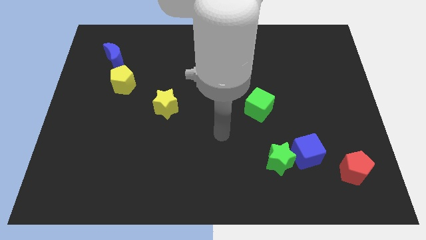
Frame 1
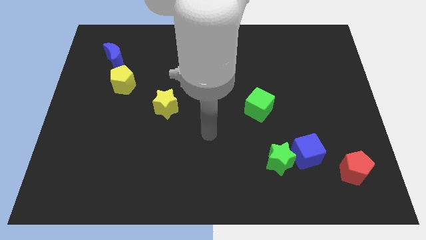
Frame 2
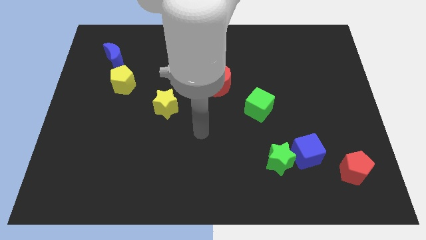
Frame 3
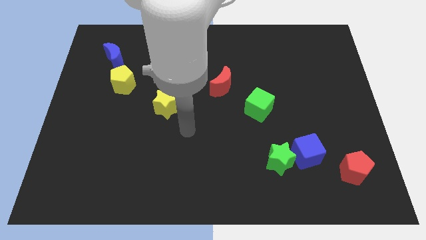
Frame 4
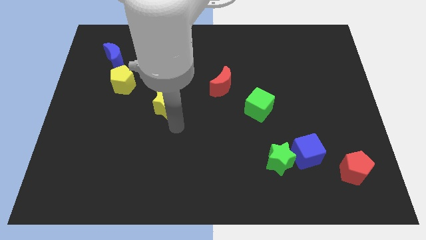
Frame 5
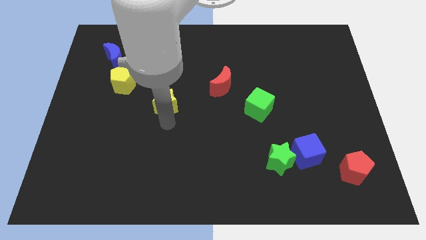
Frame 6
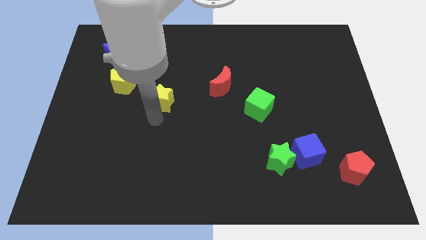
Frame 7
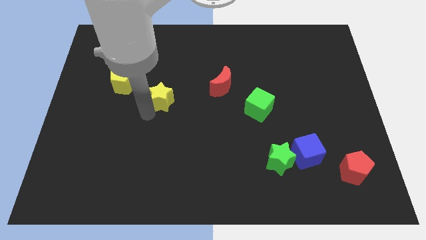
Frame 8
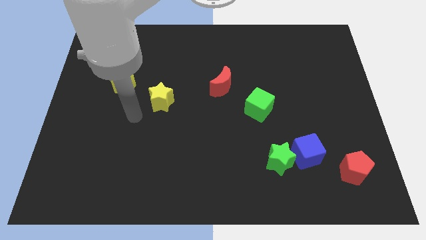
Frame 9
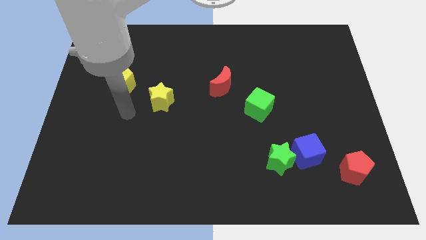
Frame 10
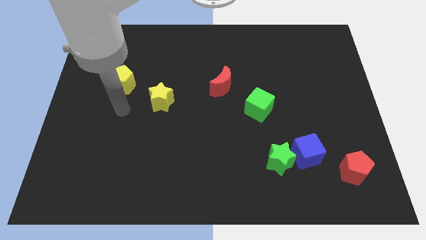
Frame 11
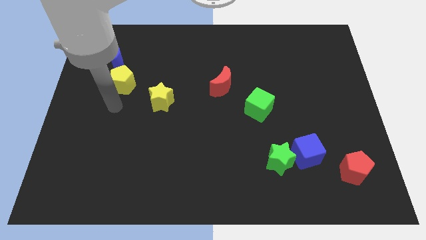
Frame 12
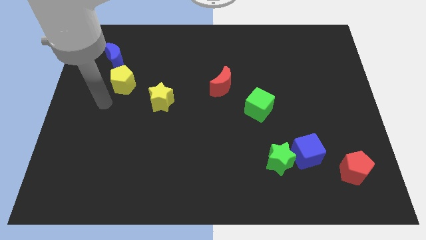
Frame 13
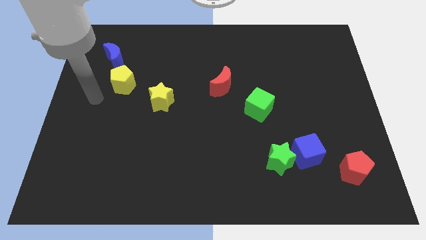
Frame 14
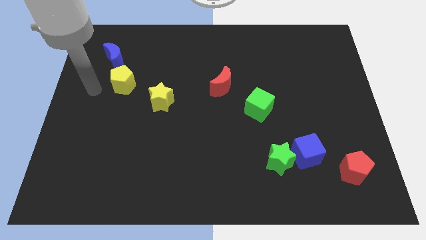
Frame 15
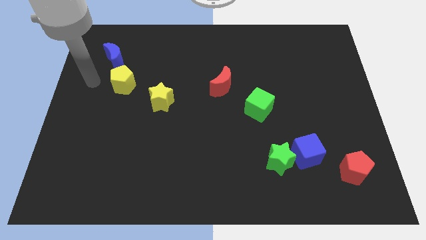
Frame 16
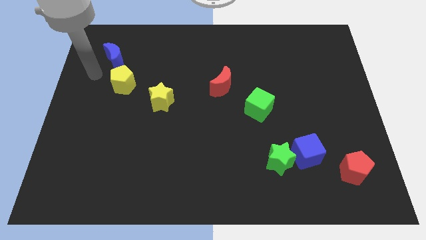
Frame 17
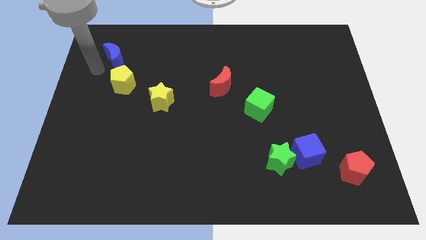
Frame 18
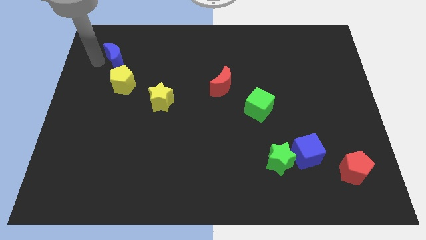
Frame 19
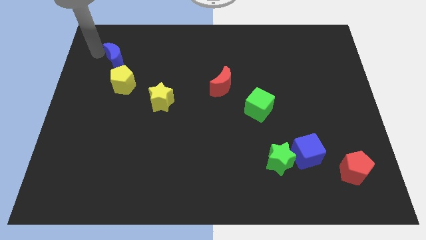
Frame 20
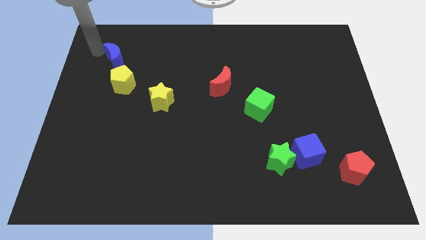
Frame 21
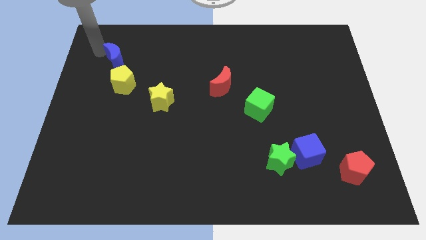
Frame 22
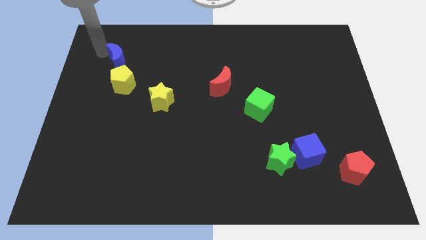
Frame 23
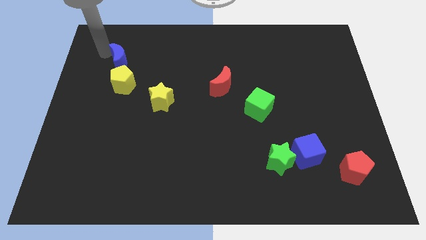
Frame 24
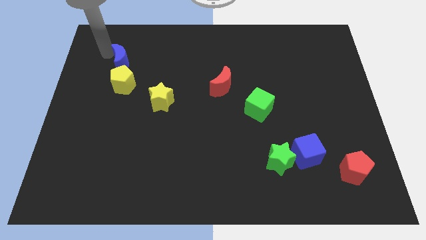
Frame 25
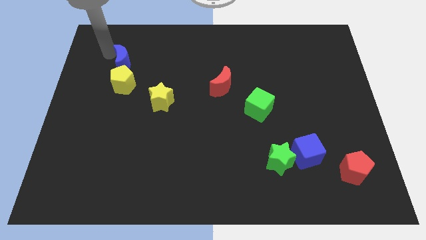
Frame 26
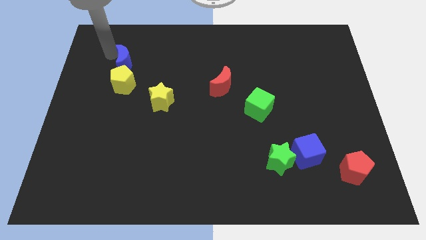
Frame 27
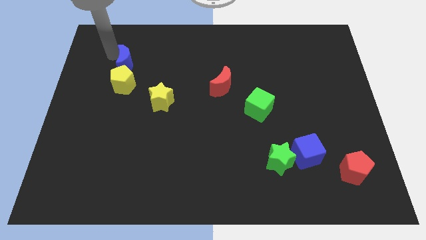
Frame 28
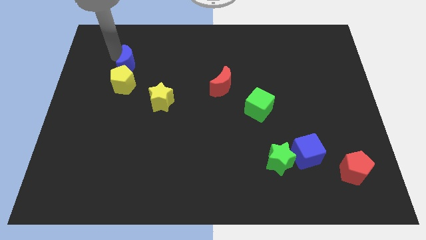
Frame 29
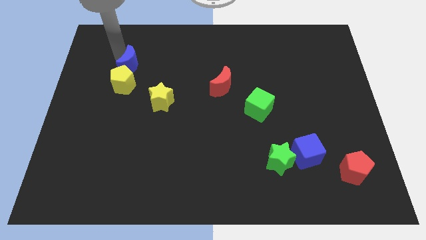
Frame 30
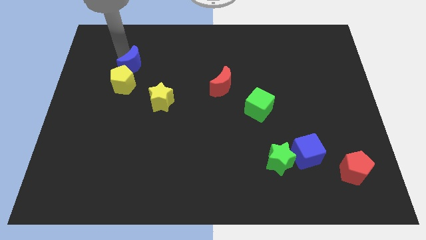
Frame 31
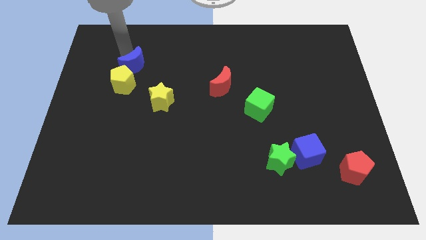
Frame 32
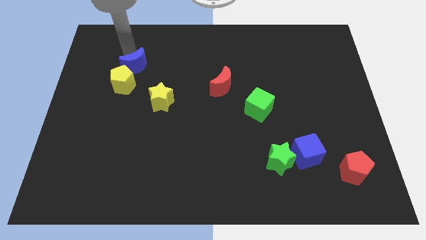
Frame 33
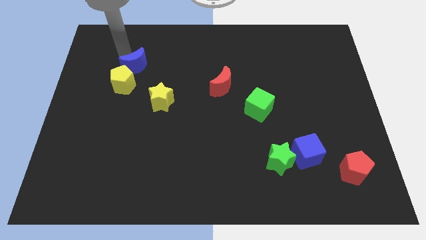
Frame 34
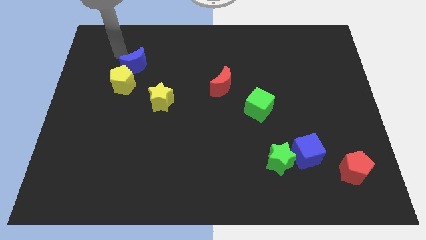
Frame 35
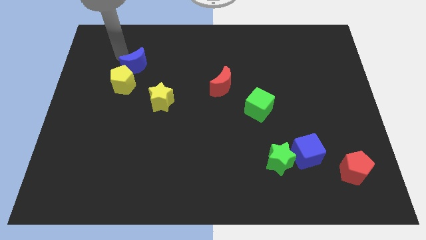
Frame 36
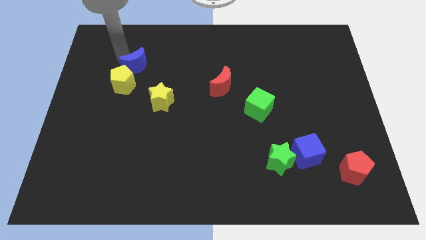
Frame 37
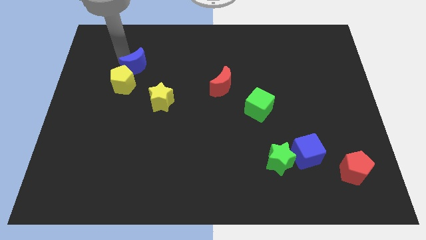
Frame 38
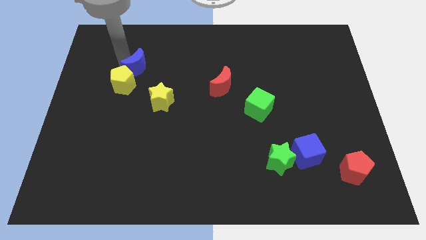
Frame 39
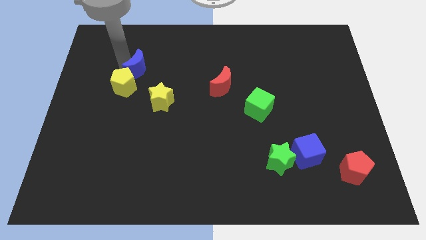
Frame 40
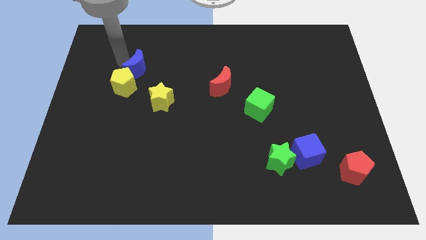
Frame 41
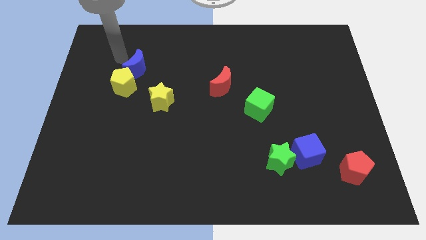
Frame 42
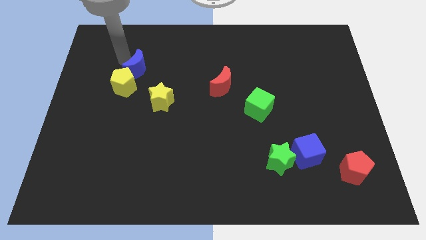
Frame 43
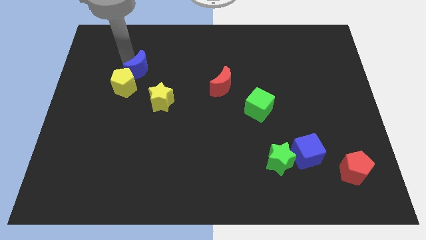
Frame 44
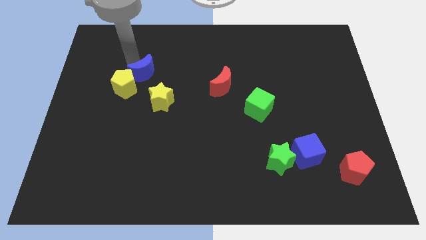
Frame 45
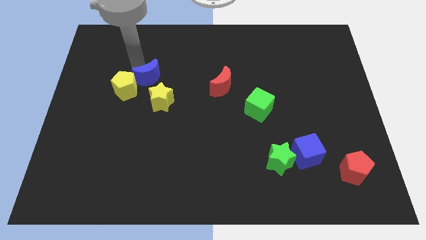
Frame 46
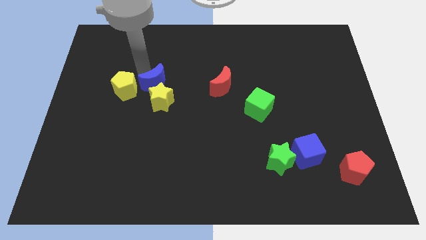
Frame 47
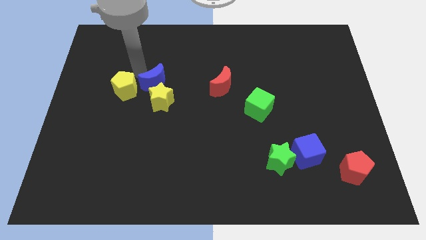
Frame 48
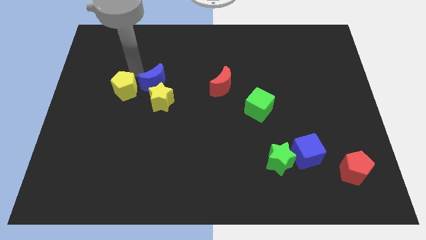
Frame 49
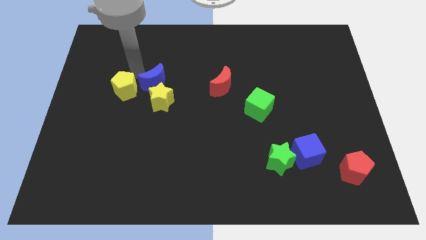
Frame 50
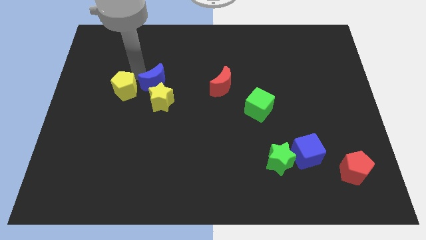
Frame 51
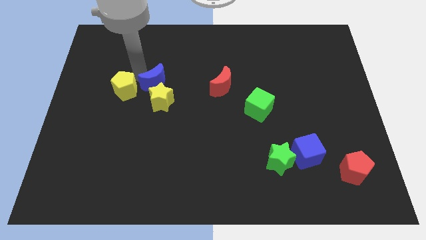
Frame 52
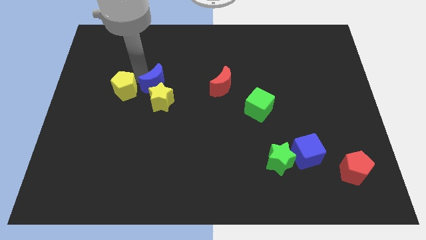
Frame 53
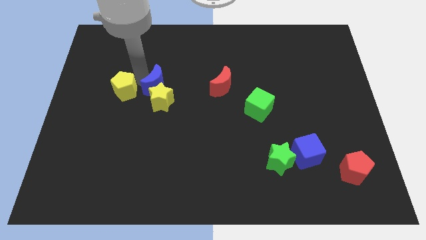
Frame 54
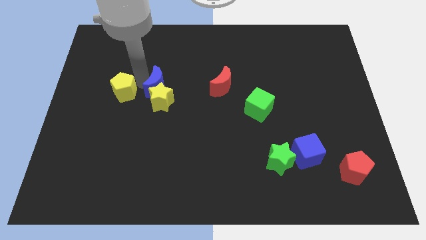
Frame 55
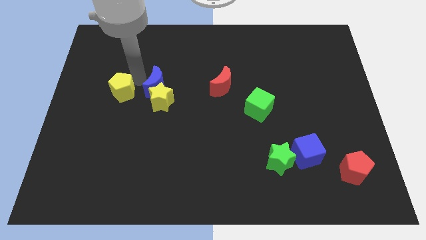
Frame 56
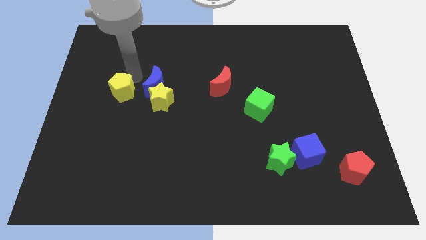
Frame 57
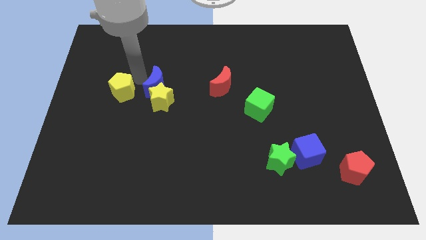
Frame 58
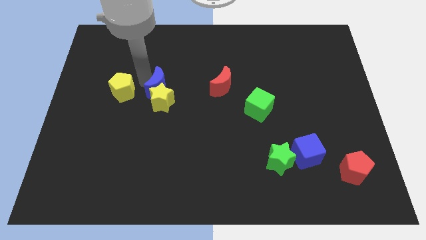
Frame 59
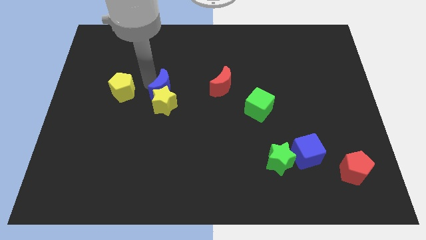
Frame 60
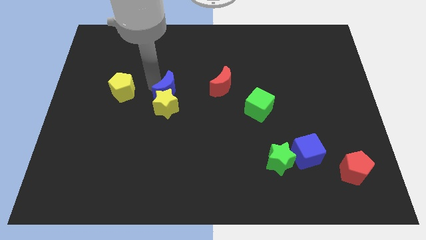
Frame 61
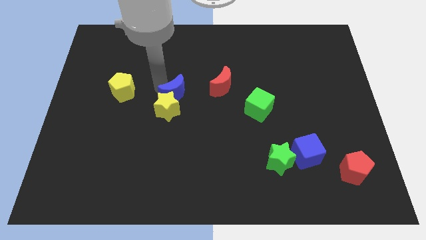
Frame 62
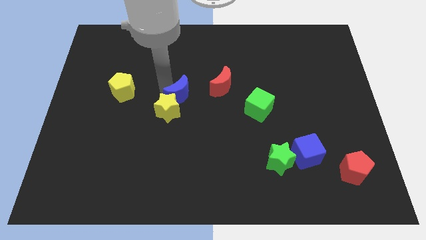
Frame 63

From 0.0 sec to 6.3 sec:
push the blue moon downwards and to the right diagonally

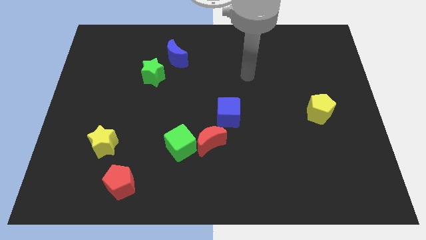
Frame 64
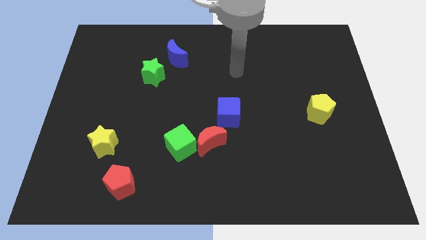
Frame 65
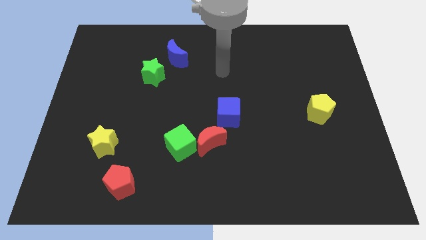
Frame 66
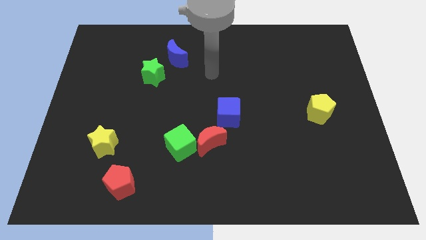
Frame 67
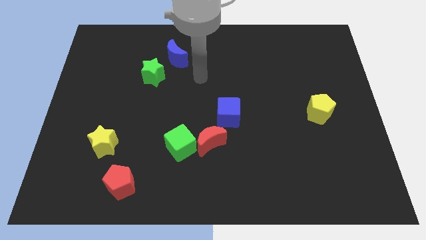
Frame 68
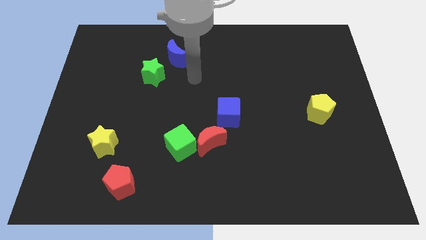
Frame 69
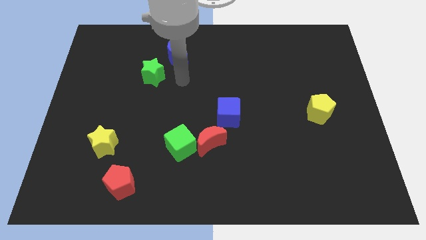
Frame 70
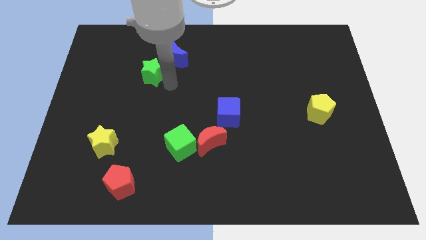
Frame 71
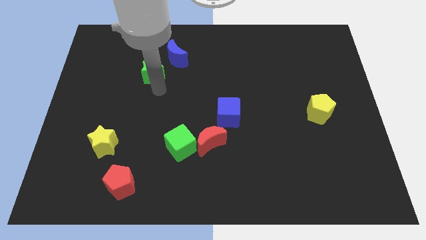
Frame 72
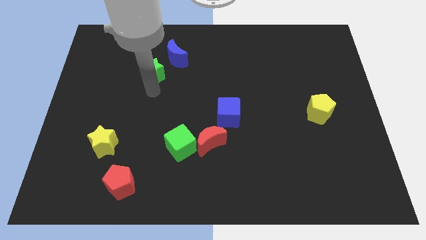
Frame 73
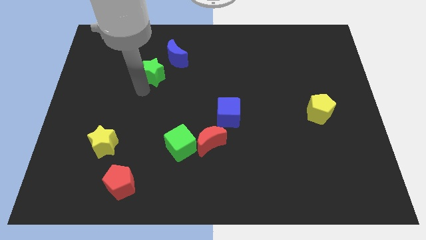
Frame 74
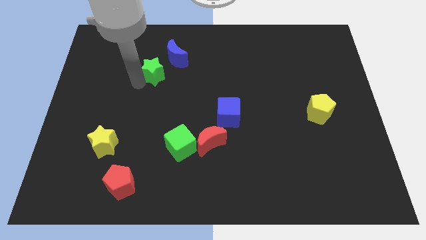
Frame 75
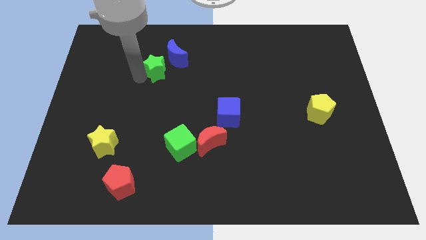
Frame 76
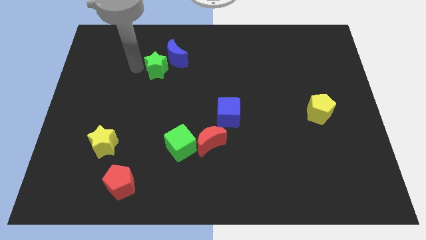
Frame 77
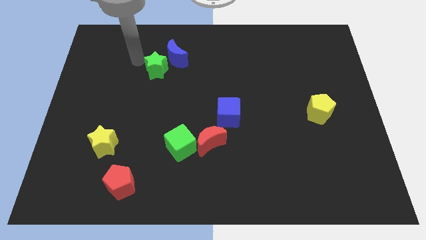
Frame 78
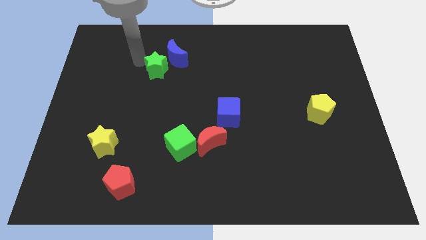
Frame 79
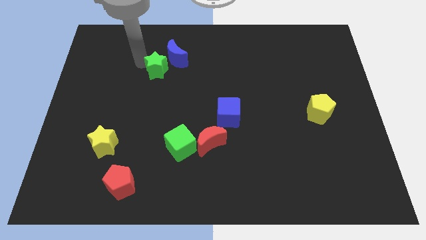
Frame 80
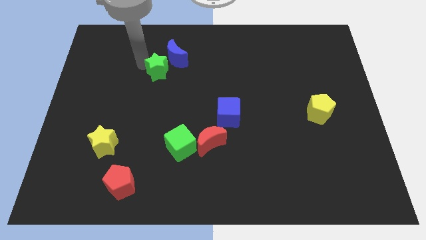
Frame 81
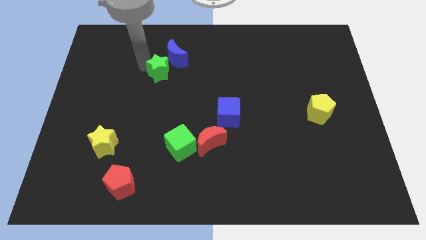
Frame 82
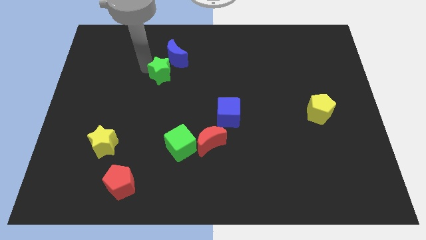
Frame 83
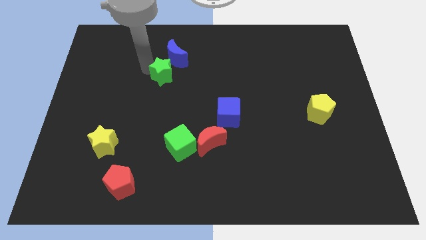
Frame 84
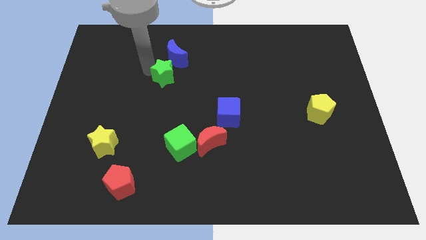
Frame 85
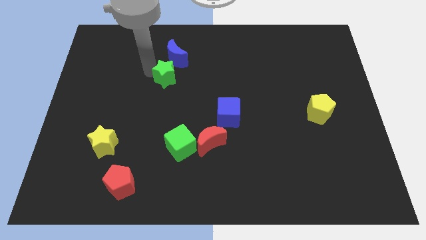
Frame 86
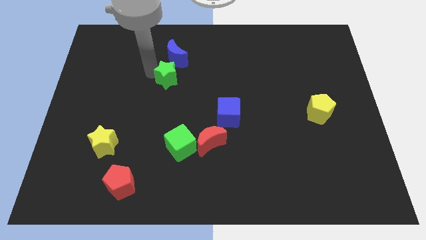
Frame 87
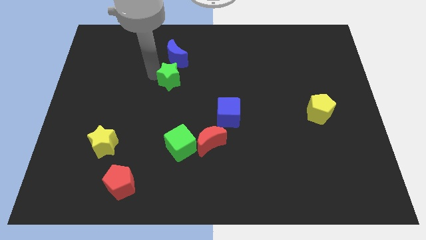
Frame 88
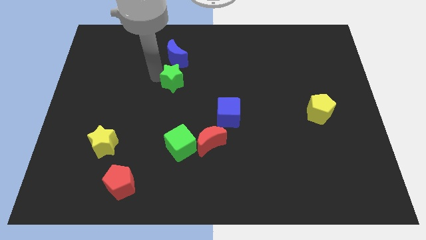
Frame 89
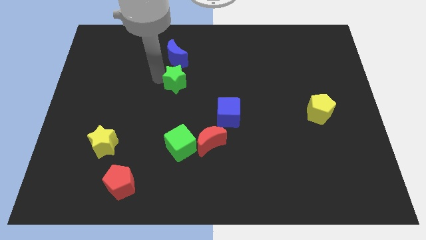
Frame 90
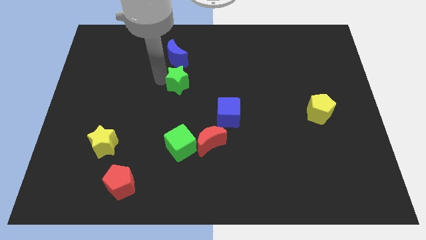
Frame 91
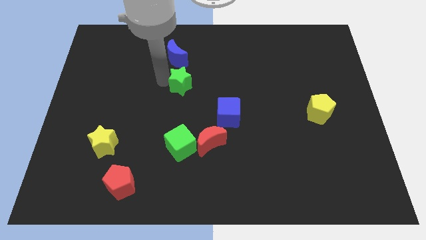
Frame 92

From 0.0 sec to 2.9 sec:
slightly push the green star to the right
